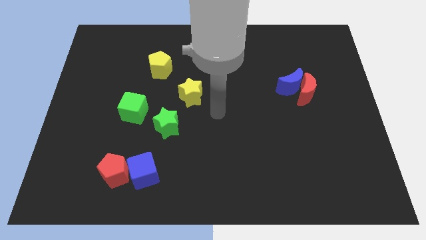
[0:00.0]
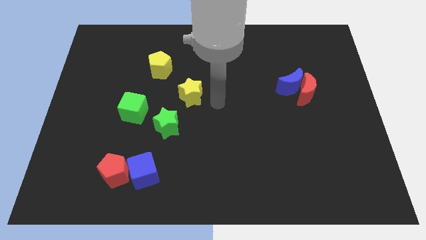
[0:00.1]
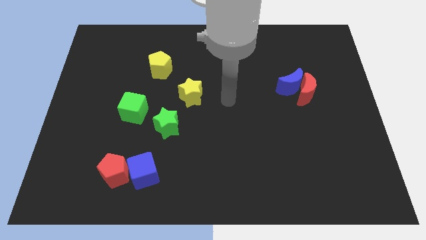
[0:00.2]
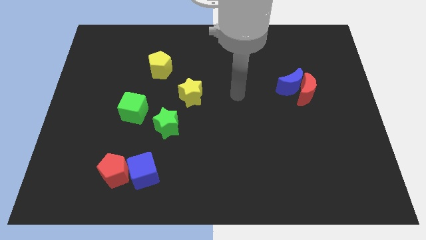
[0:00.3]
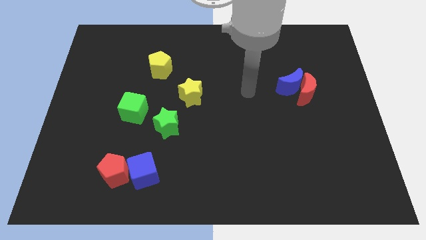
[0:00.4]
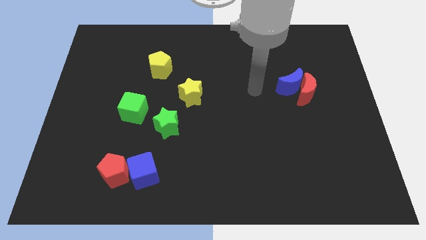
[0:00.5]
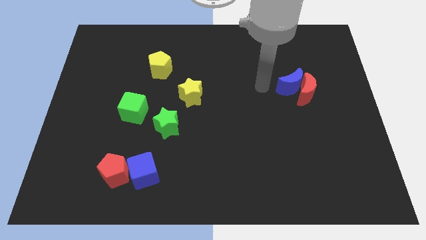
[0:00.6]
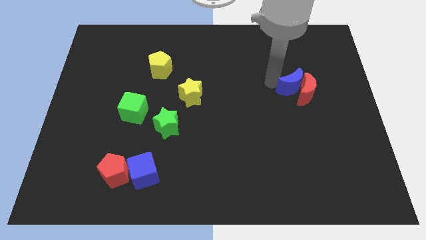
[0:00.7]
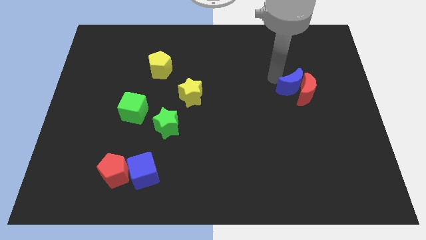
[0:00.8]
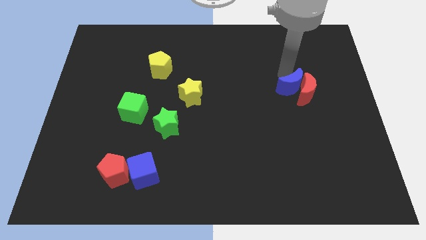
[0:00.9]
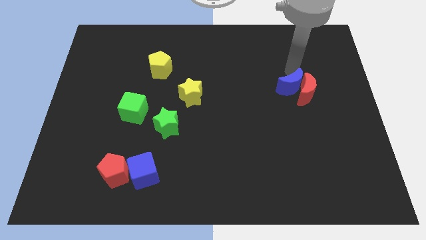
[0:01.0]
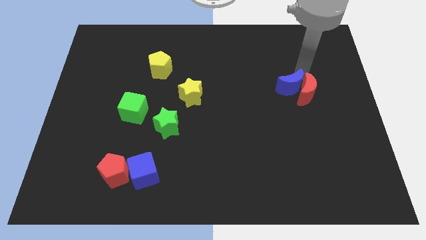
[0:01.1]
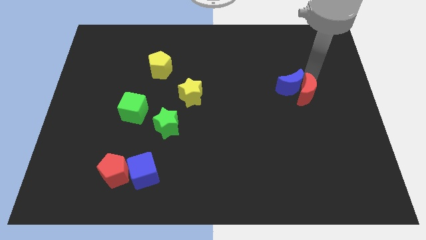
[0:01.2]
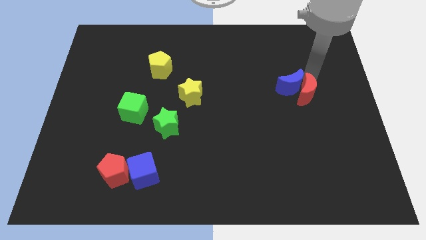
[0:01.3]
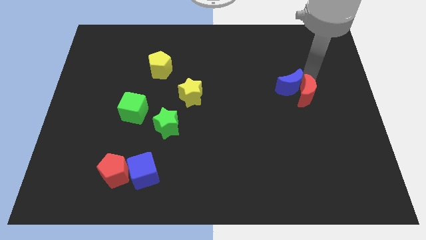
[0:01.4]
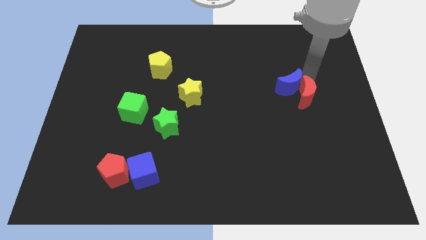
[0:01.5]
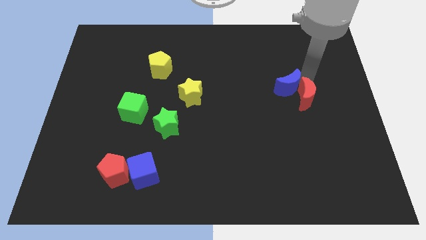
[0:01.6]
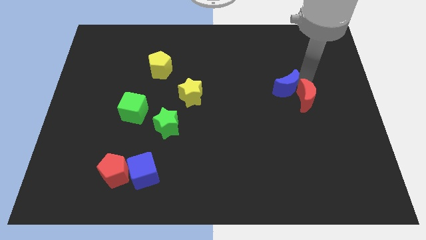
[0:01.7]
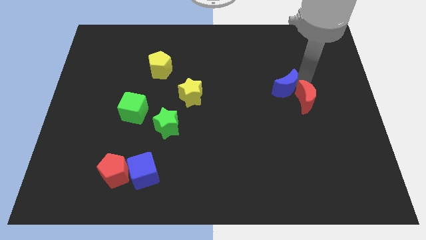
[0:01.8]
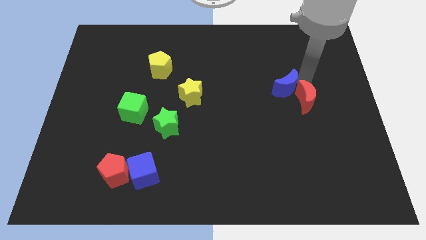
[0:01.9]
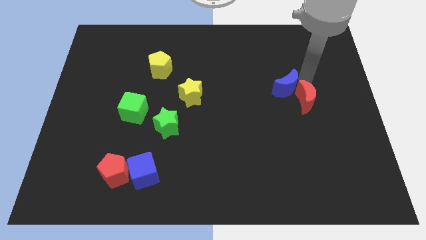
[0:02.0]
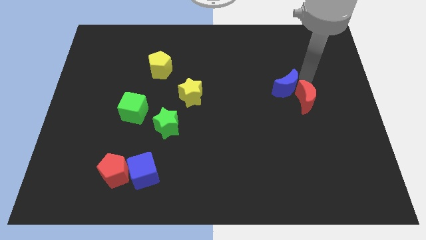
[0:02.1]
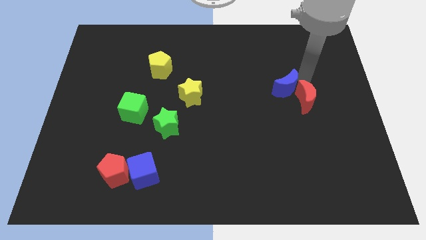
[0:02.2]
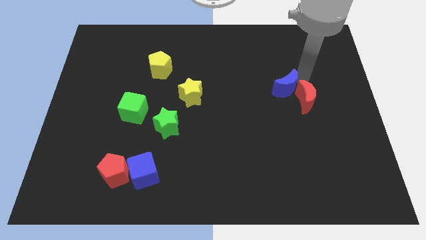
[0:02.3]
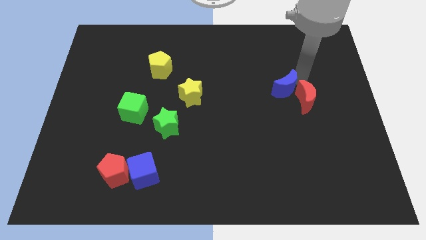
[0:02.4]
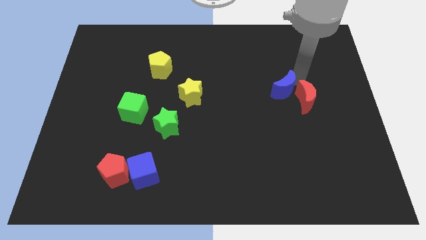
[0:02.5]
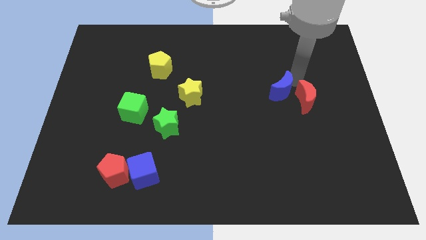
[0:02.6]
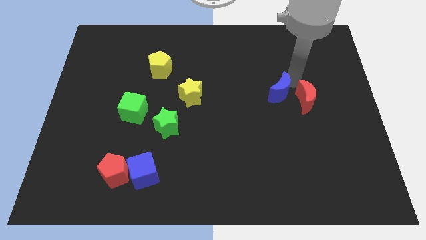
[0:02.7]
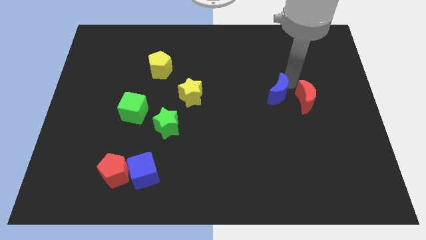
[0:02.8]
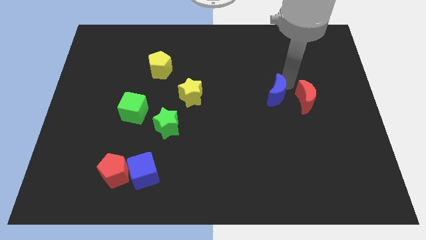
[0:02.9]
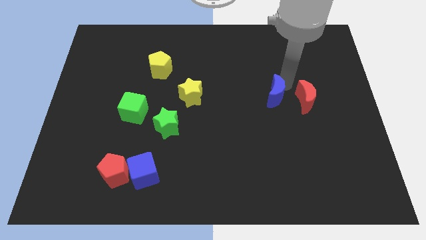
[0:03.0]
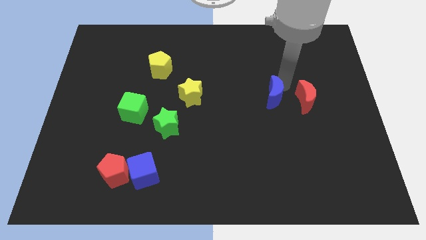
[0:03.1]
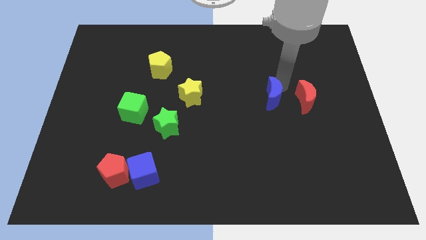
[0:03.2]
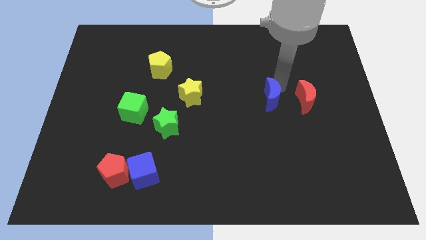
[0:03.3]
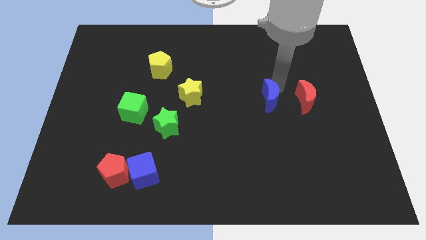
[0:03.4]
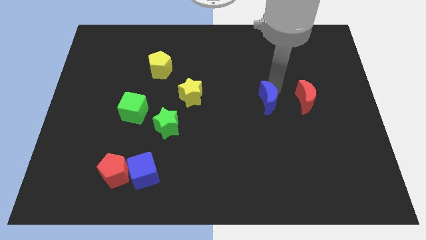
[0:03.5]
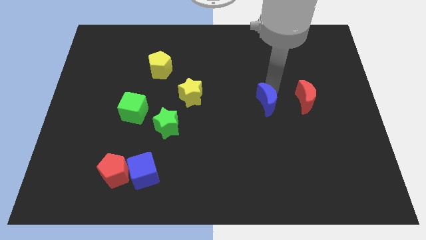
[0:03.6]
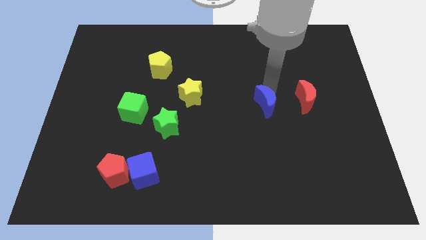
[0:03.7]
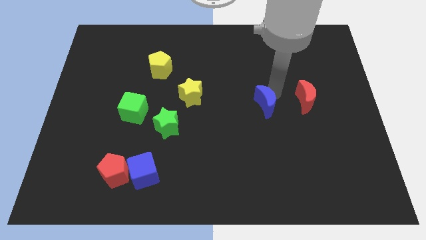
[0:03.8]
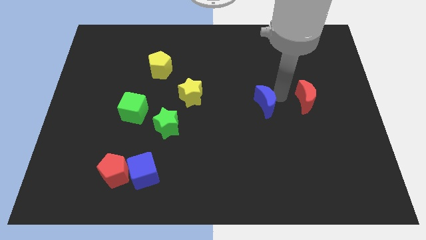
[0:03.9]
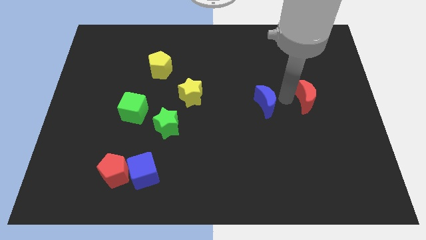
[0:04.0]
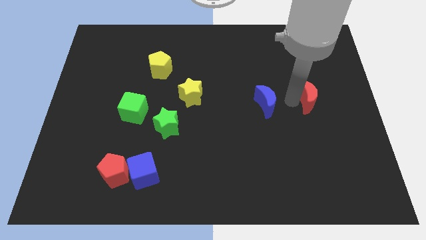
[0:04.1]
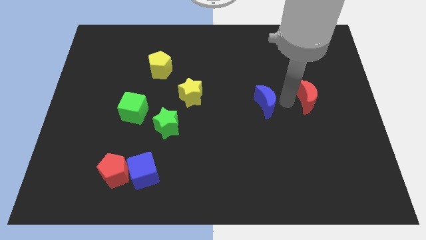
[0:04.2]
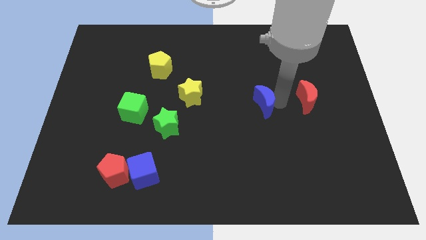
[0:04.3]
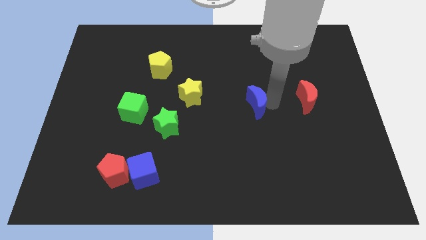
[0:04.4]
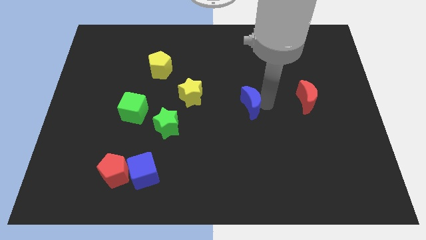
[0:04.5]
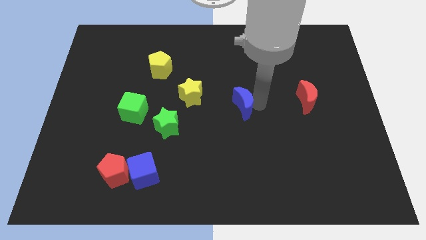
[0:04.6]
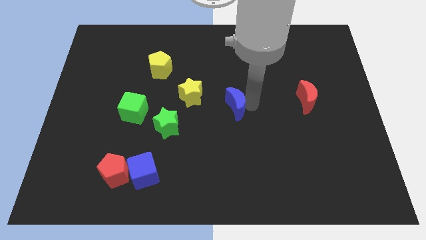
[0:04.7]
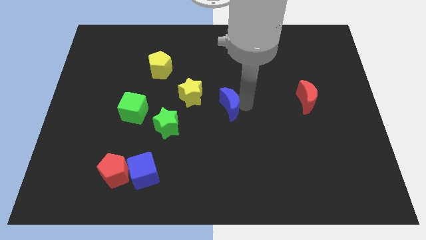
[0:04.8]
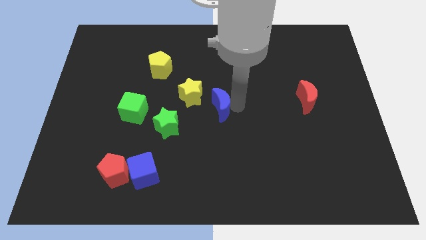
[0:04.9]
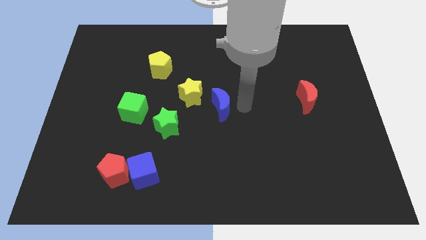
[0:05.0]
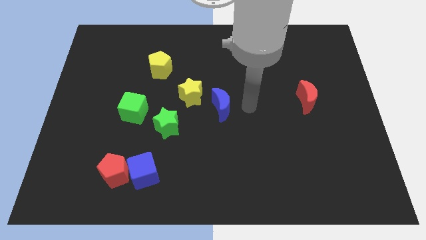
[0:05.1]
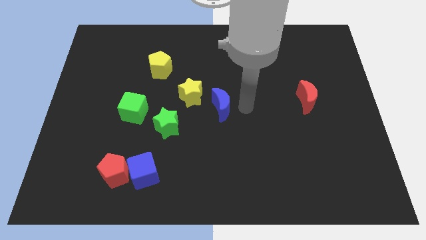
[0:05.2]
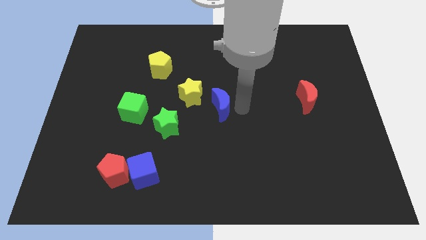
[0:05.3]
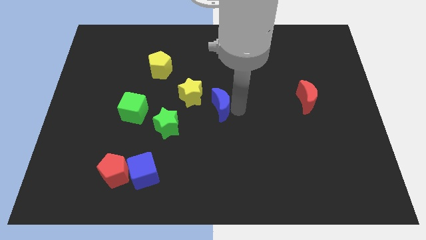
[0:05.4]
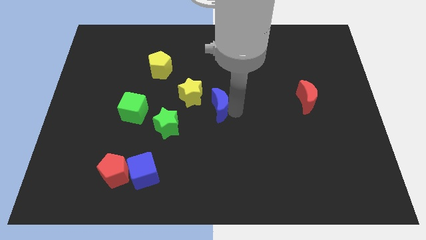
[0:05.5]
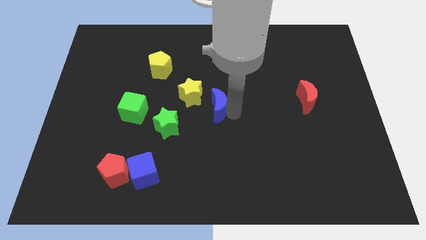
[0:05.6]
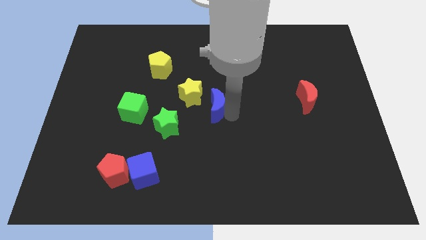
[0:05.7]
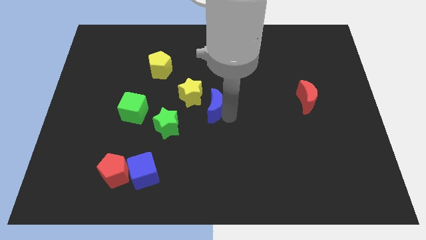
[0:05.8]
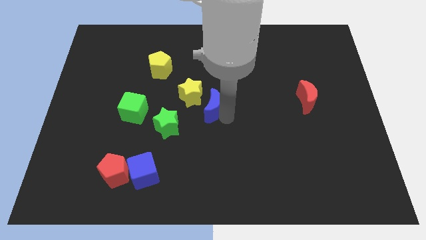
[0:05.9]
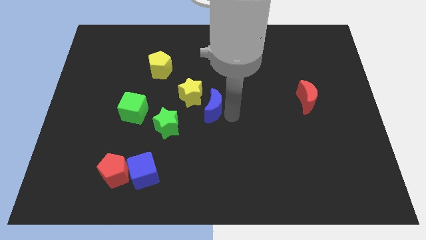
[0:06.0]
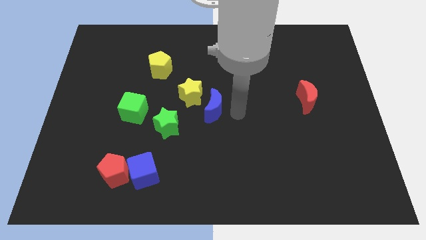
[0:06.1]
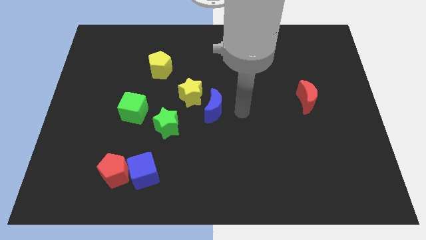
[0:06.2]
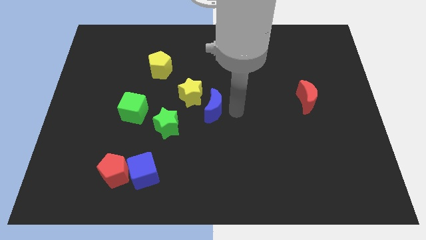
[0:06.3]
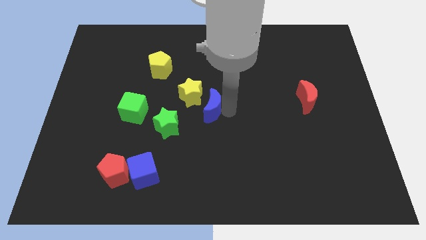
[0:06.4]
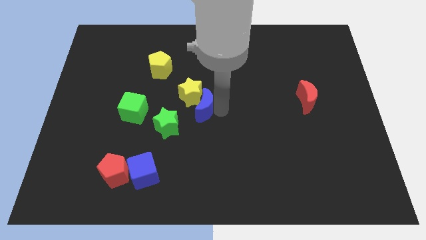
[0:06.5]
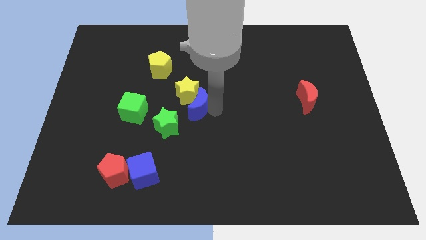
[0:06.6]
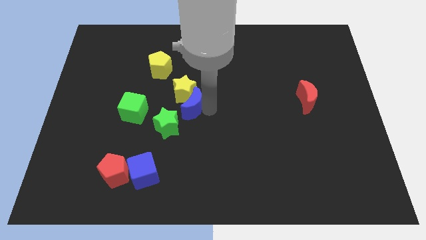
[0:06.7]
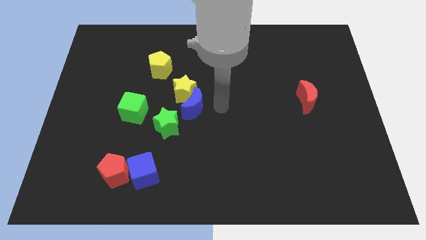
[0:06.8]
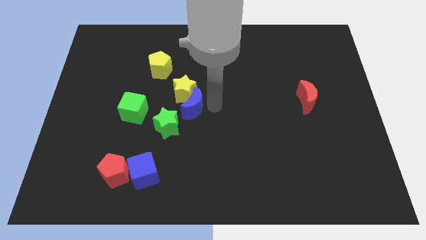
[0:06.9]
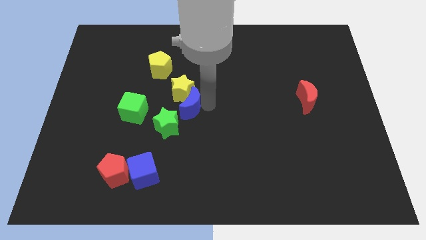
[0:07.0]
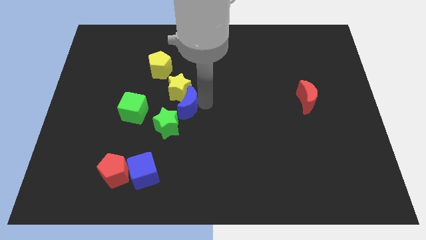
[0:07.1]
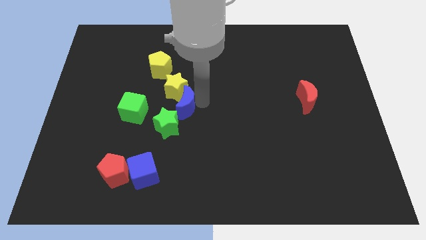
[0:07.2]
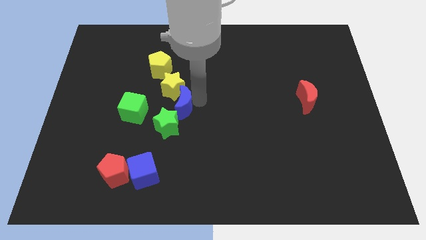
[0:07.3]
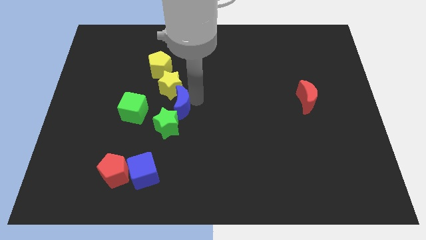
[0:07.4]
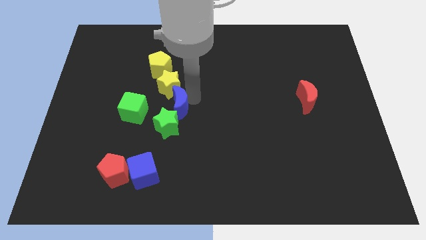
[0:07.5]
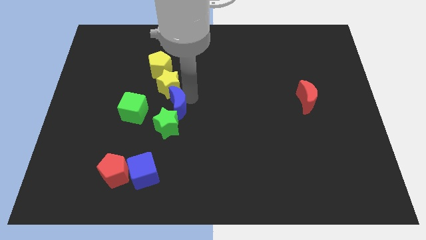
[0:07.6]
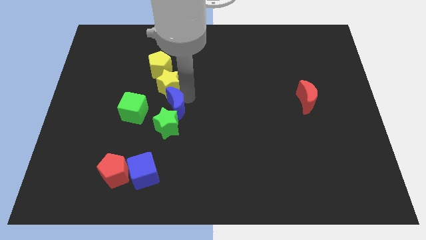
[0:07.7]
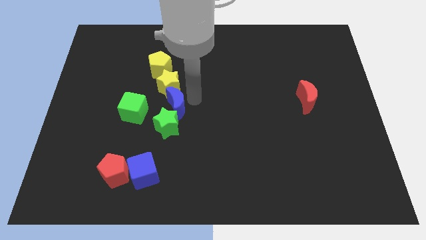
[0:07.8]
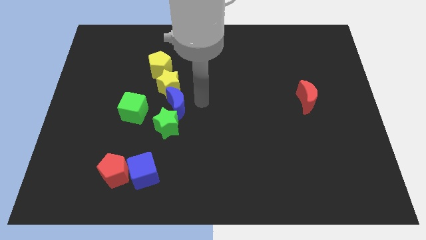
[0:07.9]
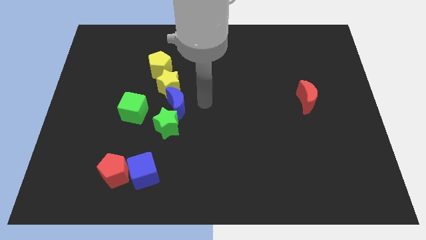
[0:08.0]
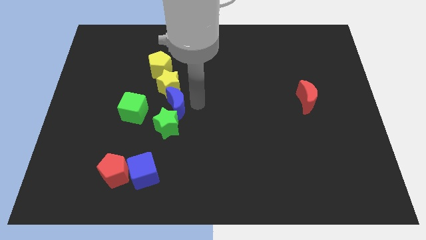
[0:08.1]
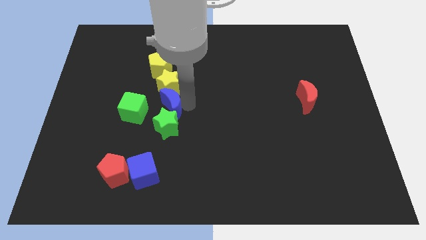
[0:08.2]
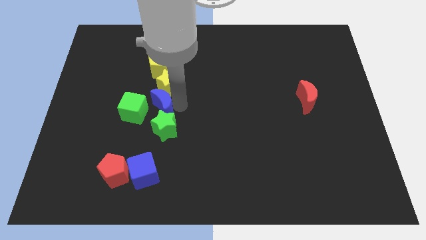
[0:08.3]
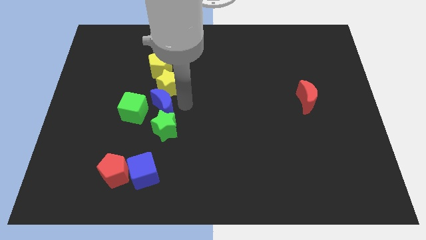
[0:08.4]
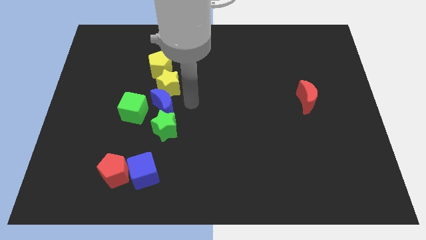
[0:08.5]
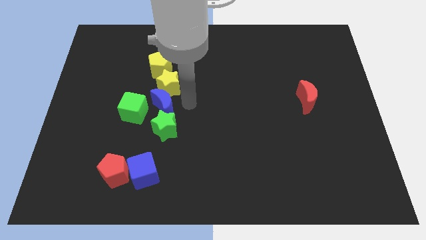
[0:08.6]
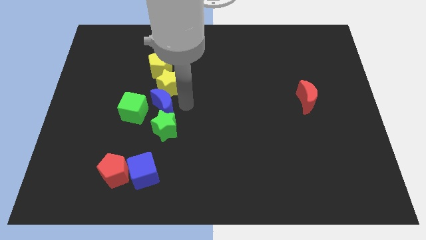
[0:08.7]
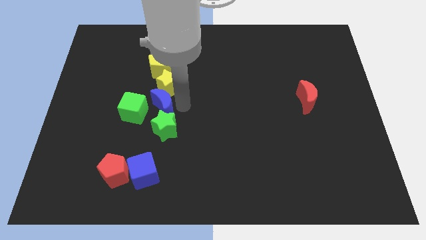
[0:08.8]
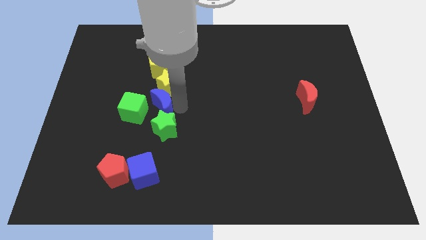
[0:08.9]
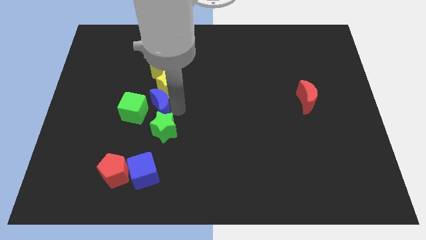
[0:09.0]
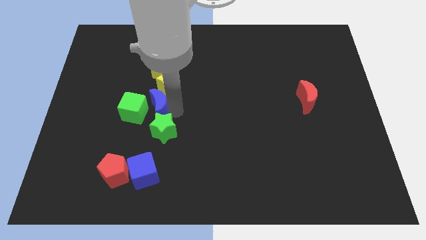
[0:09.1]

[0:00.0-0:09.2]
slide the blue moon towards the green cube
